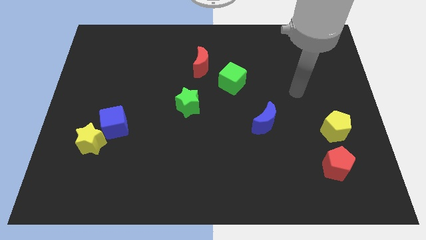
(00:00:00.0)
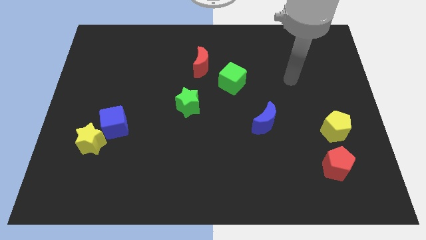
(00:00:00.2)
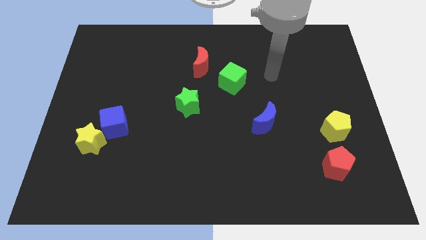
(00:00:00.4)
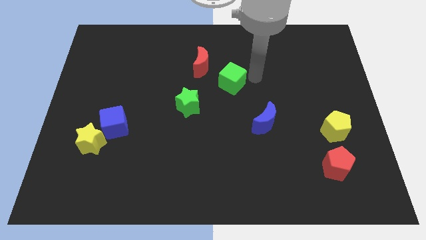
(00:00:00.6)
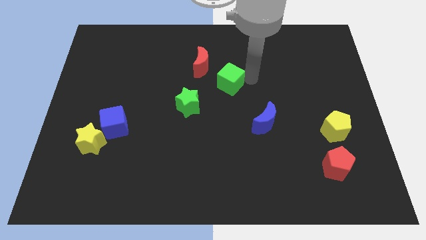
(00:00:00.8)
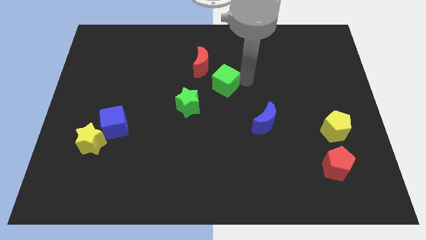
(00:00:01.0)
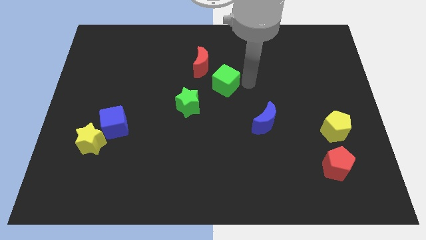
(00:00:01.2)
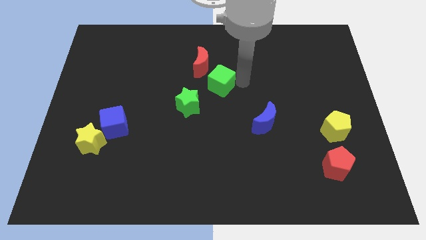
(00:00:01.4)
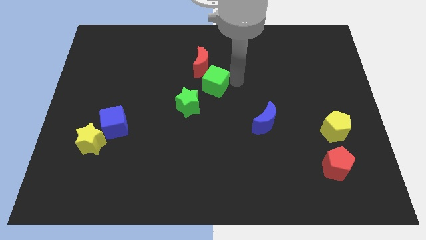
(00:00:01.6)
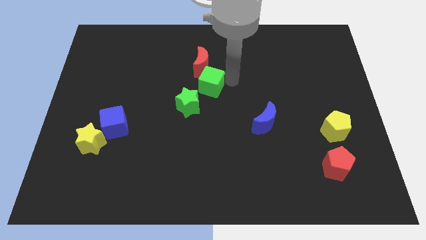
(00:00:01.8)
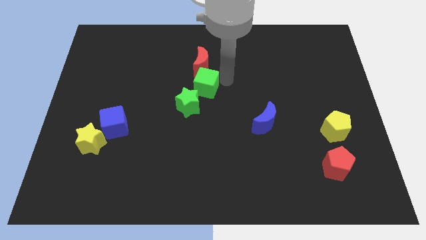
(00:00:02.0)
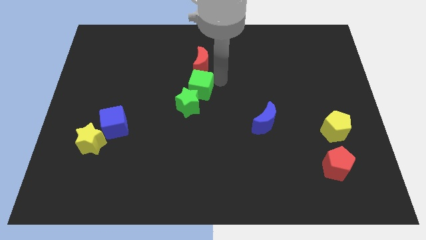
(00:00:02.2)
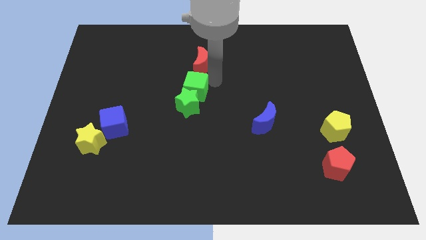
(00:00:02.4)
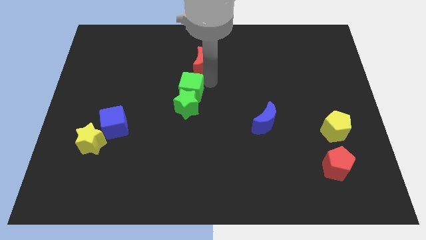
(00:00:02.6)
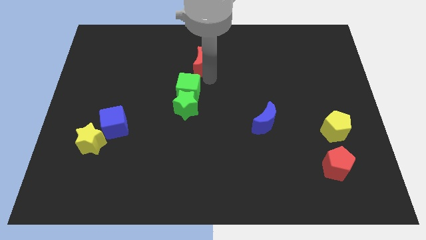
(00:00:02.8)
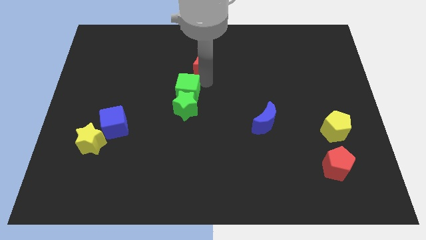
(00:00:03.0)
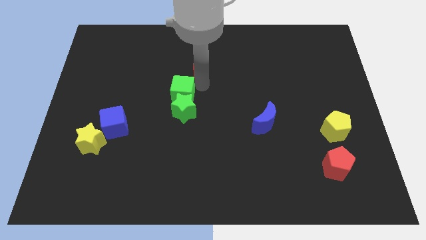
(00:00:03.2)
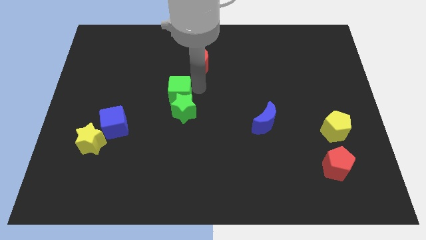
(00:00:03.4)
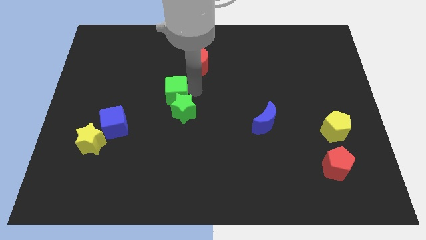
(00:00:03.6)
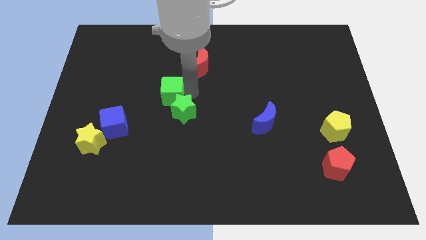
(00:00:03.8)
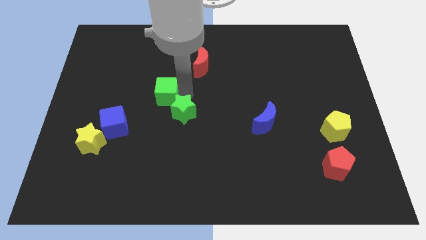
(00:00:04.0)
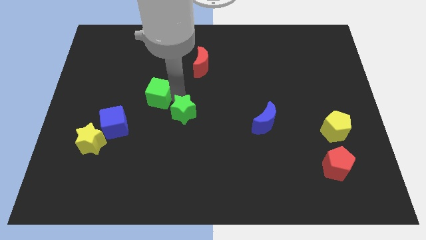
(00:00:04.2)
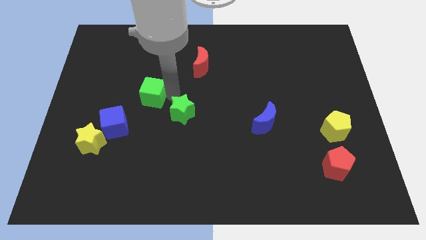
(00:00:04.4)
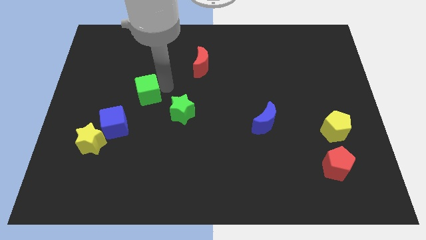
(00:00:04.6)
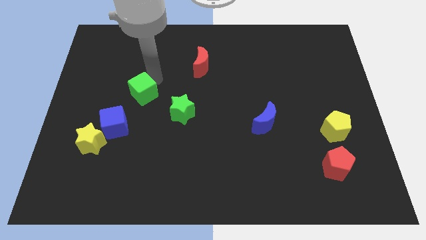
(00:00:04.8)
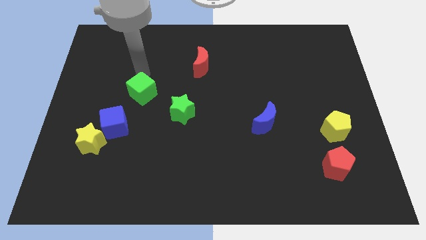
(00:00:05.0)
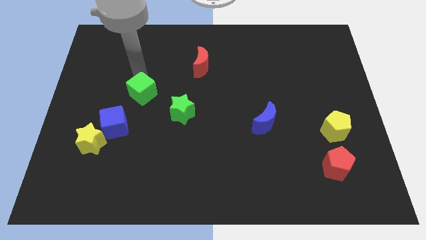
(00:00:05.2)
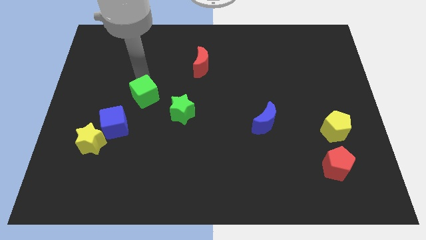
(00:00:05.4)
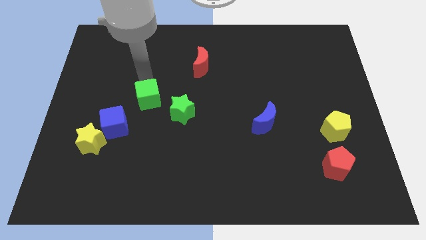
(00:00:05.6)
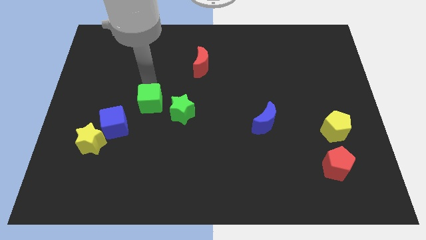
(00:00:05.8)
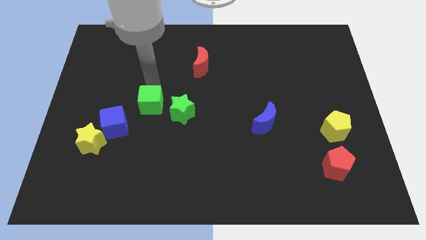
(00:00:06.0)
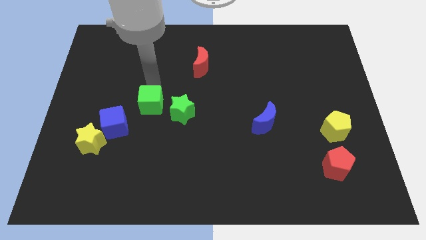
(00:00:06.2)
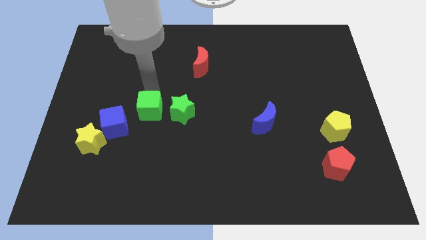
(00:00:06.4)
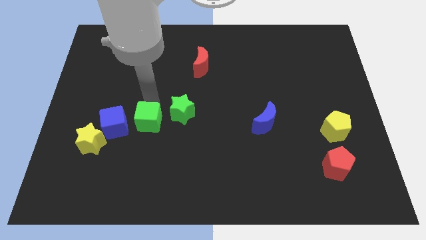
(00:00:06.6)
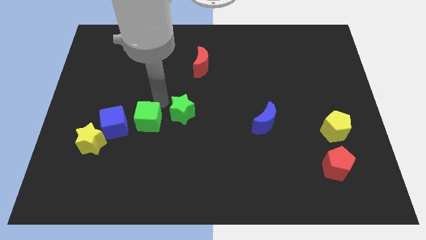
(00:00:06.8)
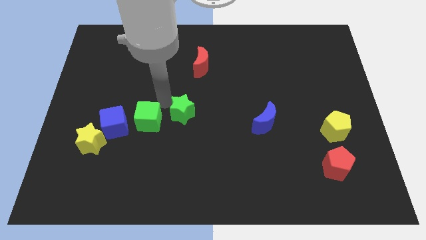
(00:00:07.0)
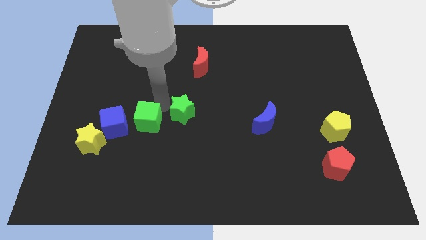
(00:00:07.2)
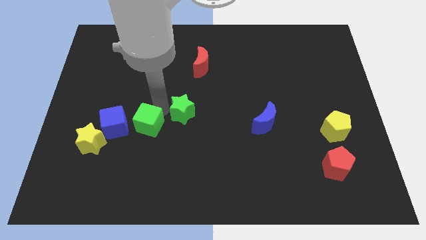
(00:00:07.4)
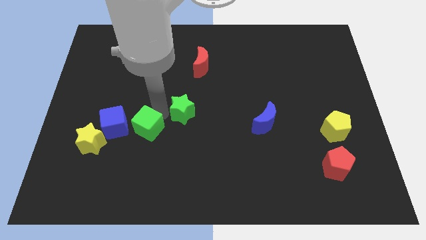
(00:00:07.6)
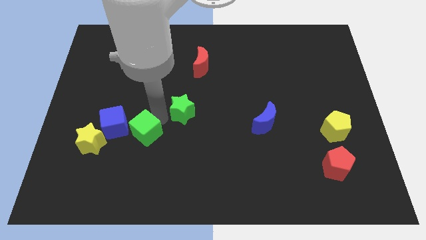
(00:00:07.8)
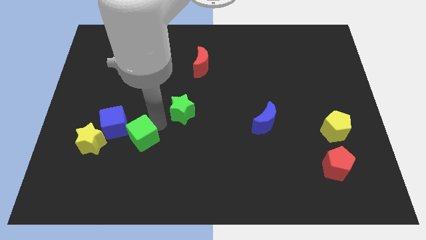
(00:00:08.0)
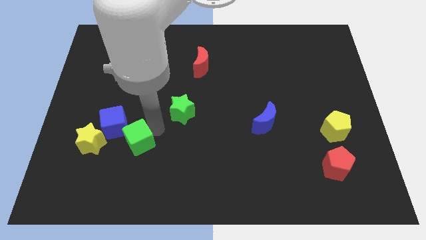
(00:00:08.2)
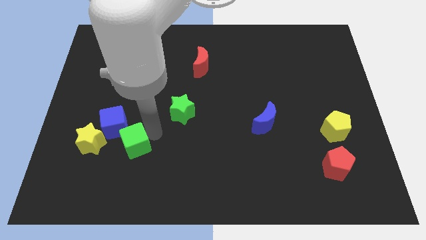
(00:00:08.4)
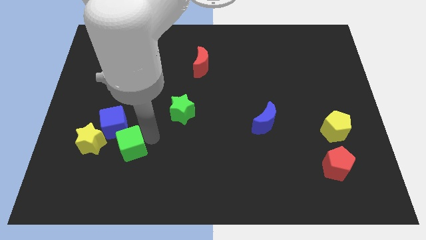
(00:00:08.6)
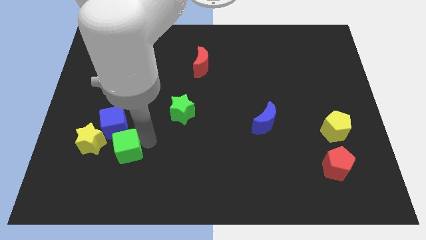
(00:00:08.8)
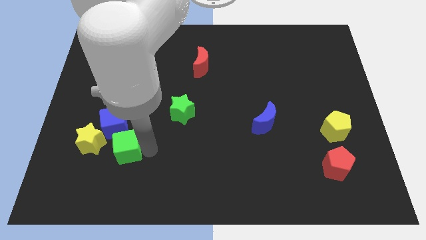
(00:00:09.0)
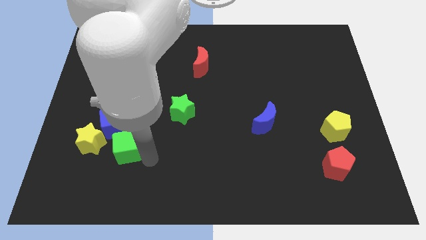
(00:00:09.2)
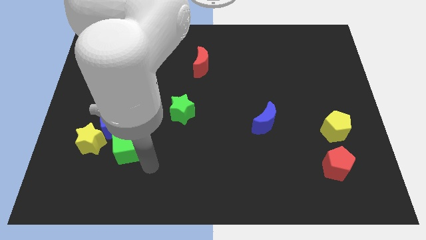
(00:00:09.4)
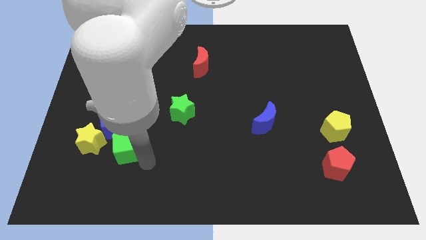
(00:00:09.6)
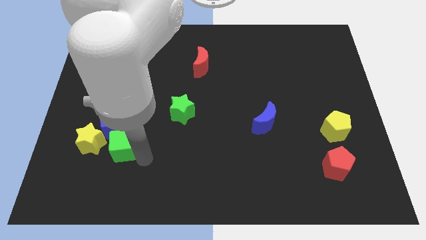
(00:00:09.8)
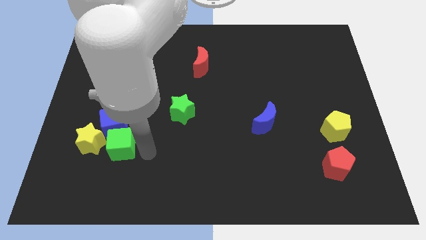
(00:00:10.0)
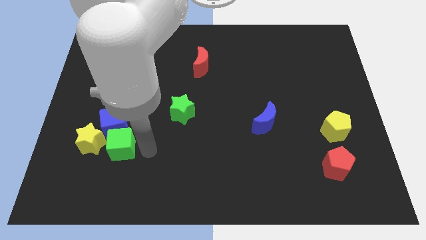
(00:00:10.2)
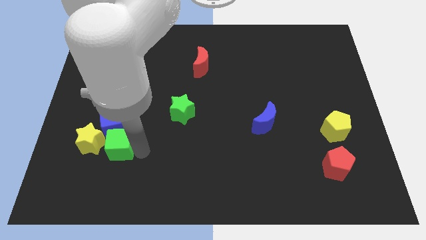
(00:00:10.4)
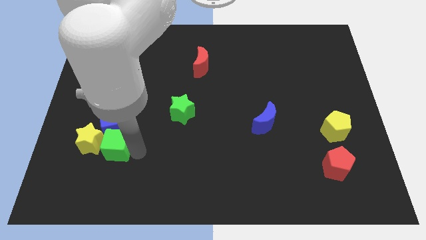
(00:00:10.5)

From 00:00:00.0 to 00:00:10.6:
push the green cube towards the yellow star

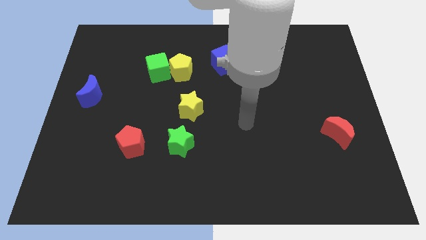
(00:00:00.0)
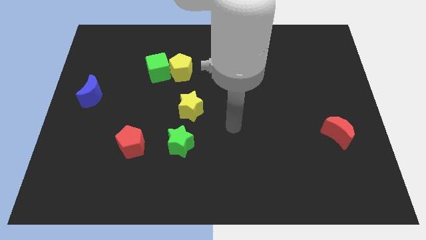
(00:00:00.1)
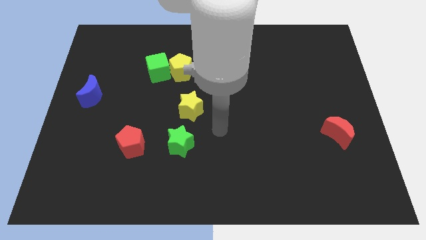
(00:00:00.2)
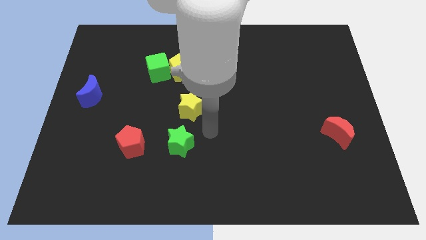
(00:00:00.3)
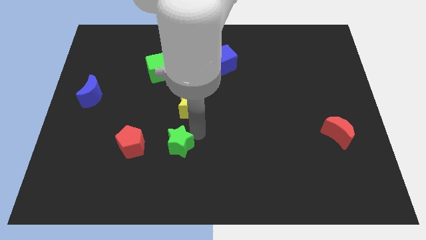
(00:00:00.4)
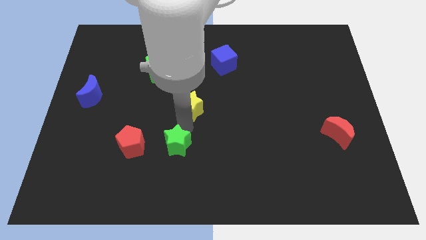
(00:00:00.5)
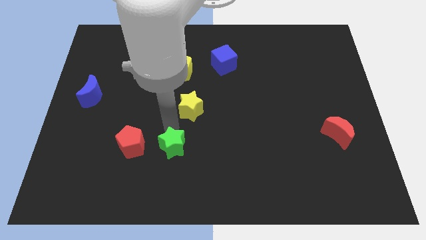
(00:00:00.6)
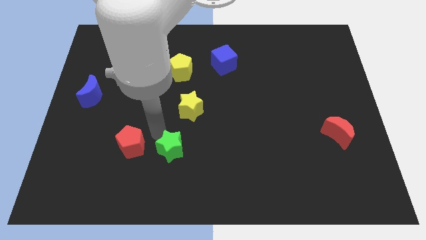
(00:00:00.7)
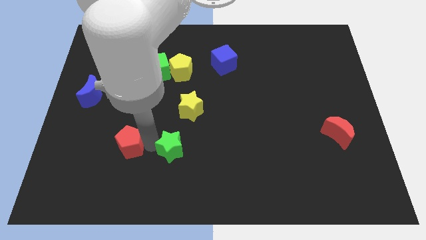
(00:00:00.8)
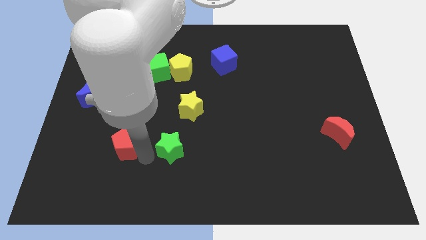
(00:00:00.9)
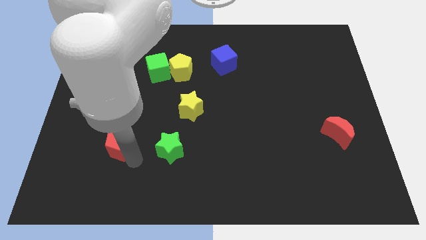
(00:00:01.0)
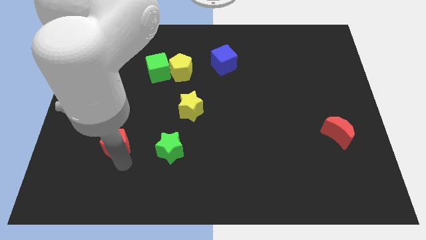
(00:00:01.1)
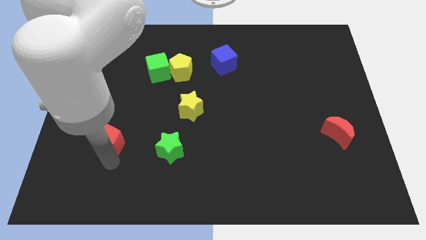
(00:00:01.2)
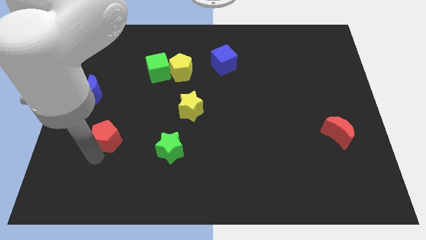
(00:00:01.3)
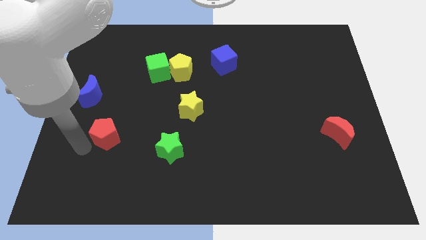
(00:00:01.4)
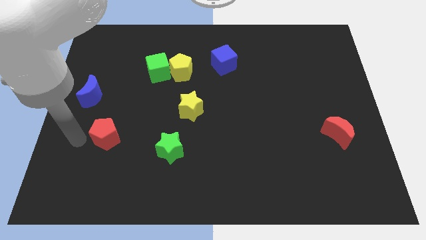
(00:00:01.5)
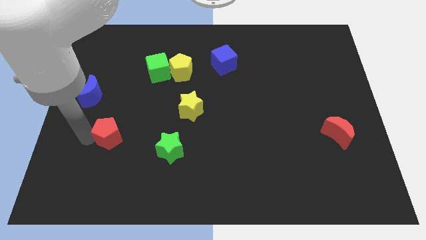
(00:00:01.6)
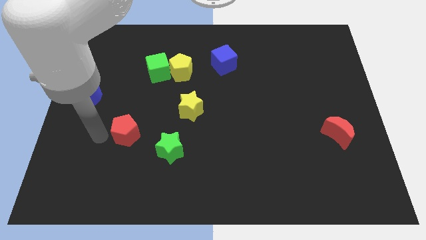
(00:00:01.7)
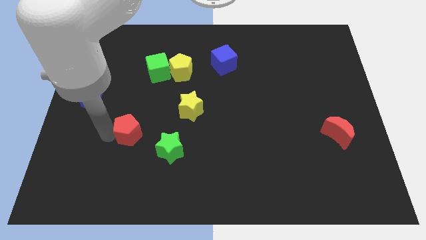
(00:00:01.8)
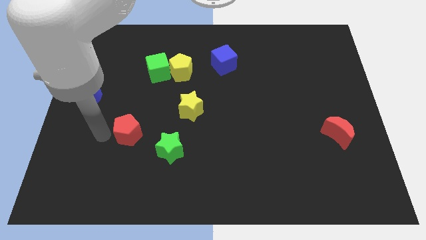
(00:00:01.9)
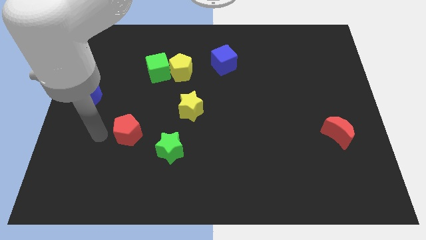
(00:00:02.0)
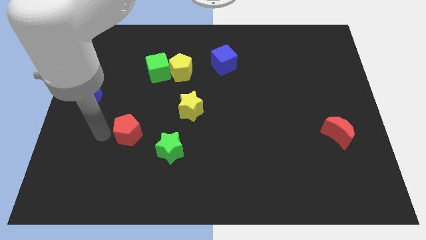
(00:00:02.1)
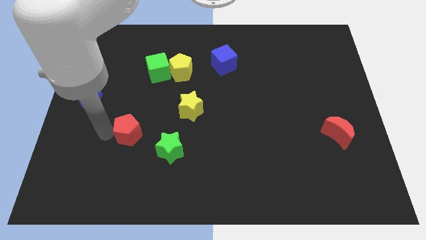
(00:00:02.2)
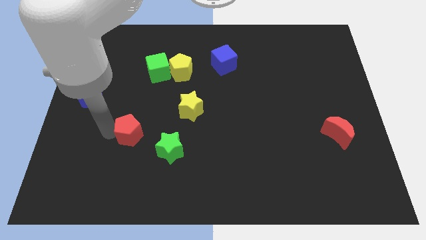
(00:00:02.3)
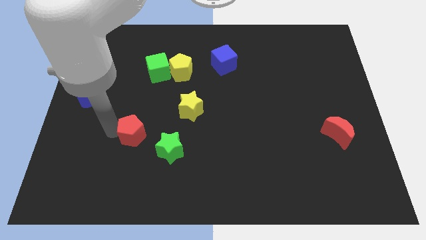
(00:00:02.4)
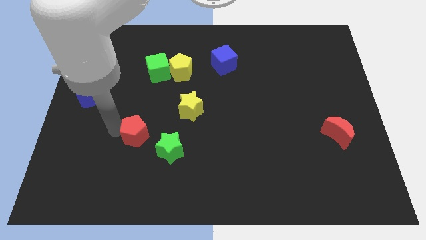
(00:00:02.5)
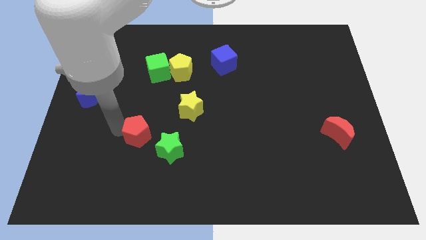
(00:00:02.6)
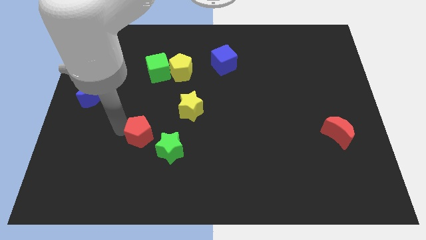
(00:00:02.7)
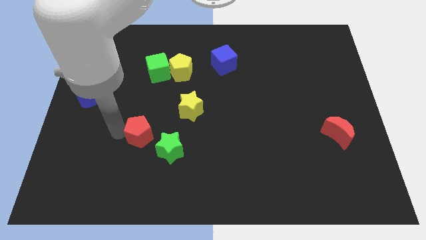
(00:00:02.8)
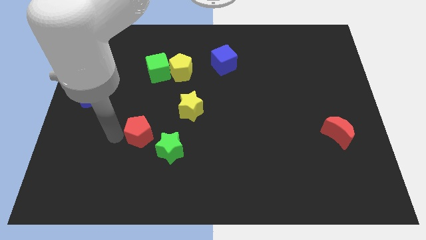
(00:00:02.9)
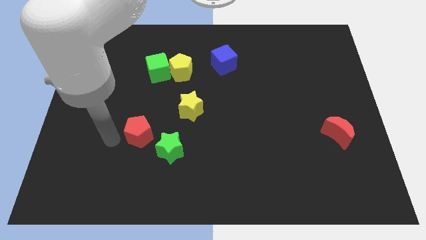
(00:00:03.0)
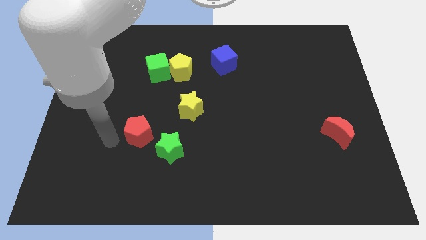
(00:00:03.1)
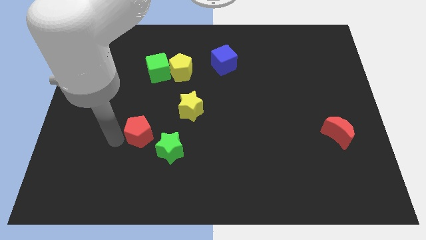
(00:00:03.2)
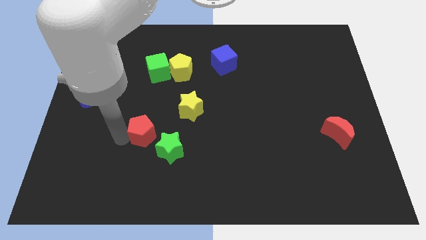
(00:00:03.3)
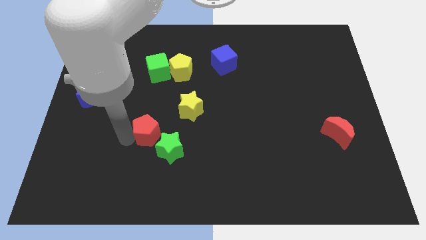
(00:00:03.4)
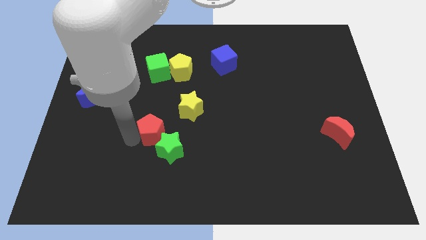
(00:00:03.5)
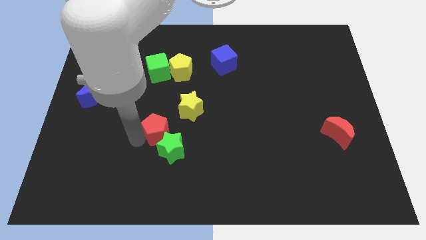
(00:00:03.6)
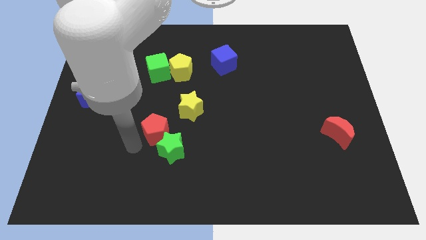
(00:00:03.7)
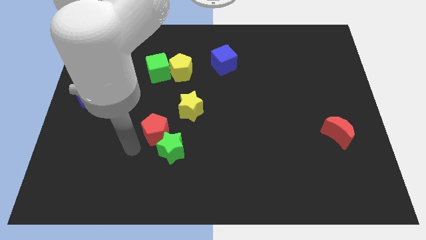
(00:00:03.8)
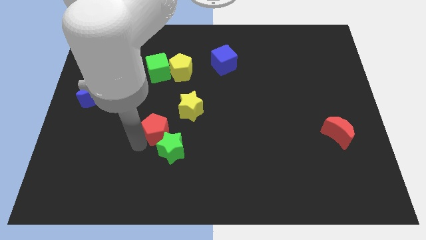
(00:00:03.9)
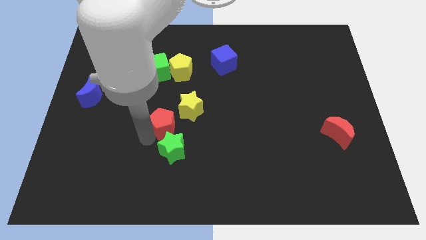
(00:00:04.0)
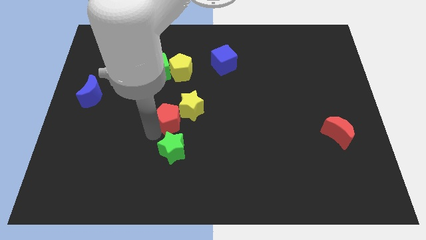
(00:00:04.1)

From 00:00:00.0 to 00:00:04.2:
slide the red pentagon next to the yellow star
